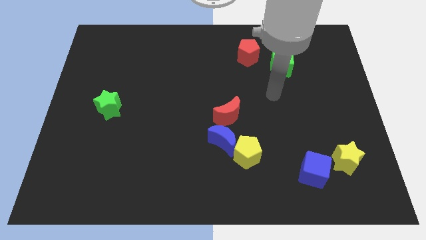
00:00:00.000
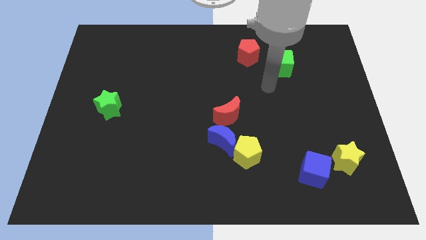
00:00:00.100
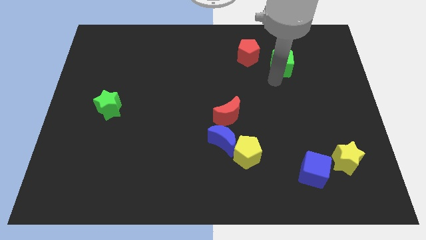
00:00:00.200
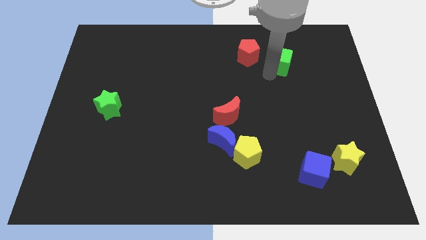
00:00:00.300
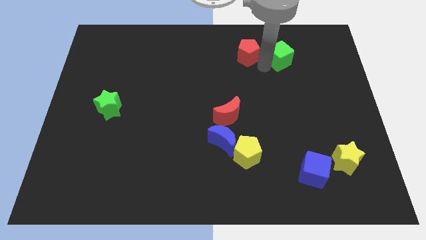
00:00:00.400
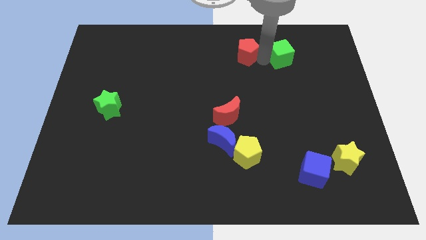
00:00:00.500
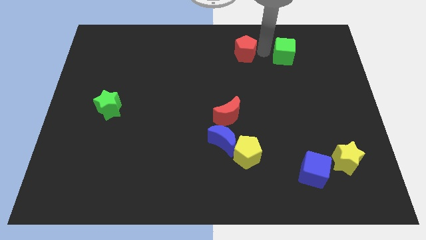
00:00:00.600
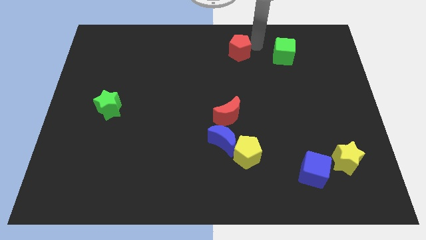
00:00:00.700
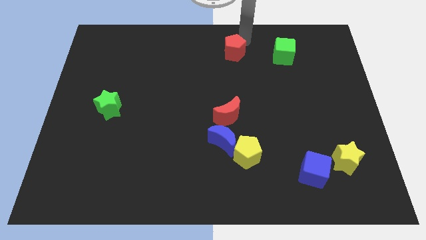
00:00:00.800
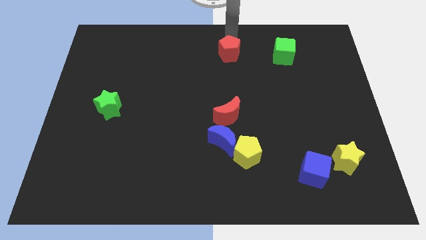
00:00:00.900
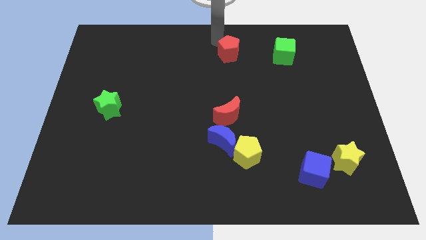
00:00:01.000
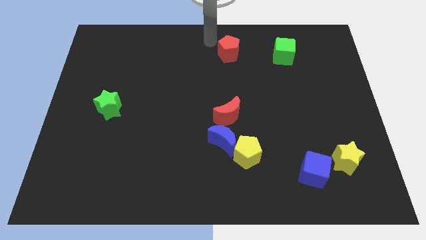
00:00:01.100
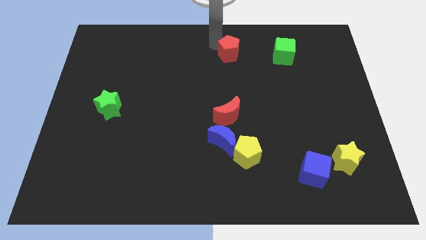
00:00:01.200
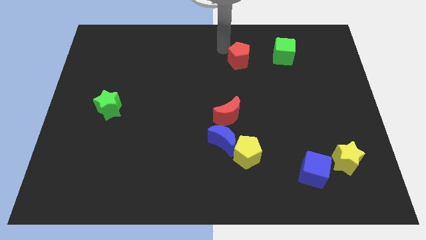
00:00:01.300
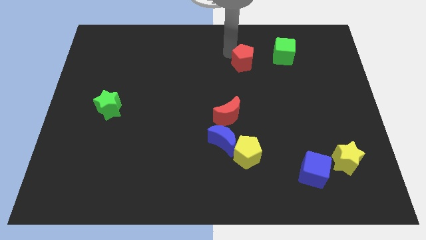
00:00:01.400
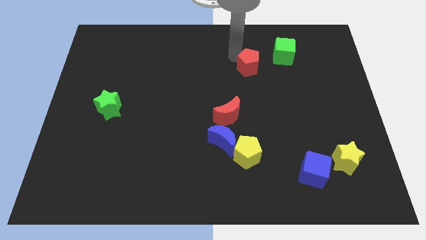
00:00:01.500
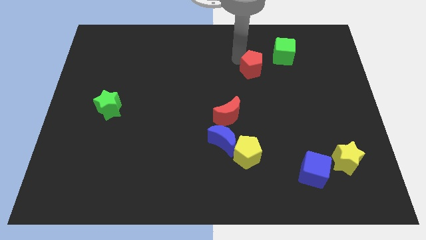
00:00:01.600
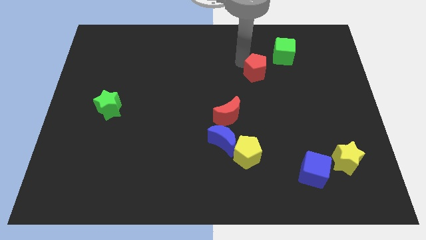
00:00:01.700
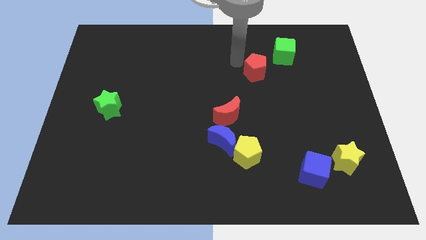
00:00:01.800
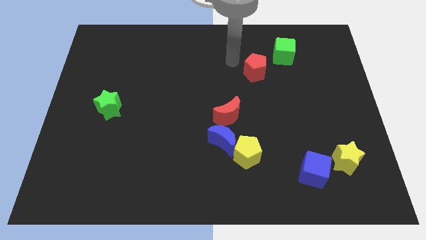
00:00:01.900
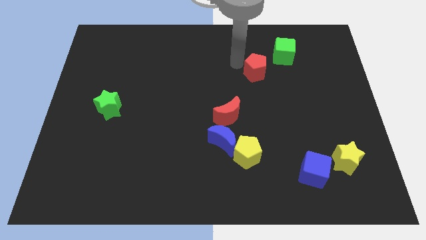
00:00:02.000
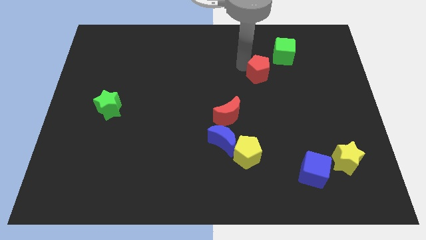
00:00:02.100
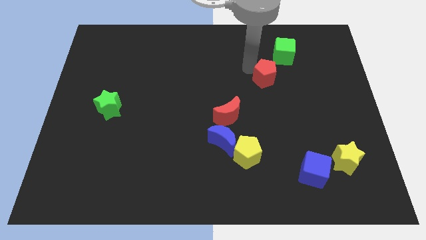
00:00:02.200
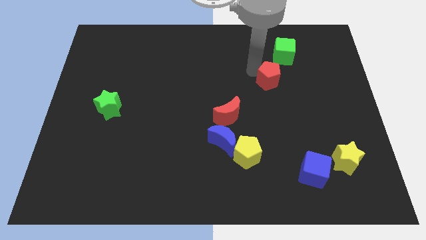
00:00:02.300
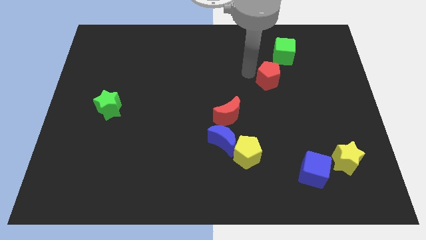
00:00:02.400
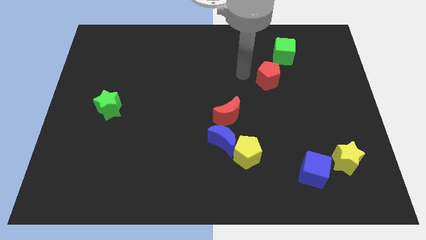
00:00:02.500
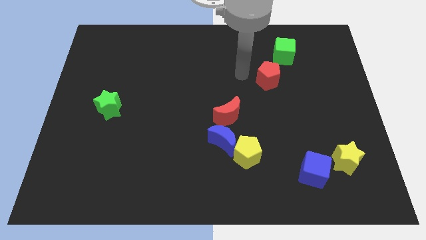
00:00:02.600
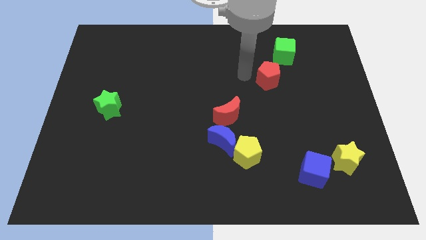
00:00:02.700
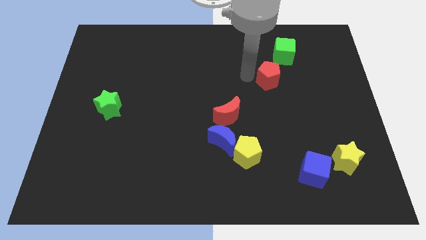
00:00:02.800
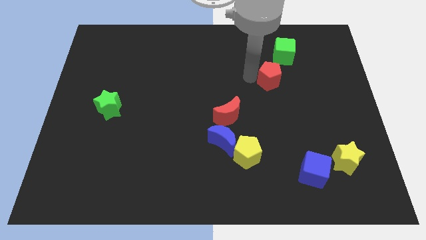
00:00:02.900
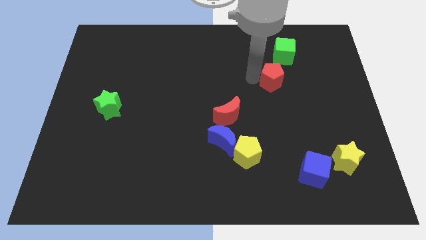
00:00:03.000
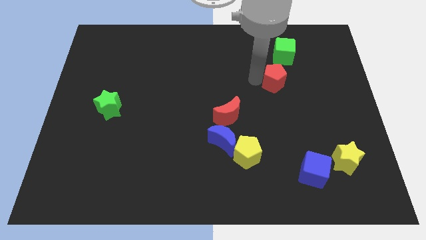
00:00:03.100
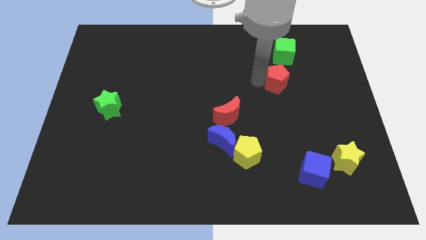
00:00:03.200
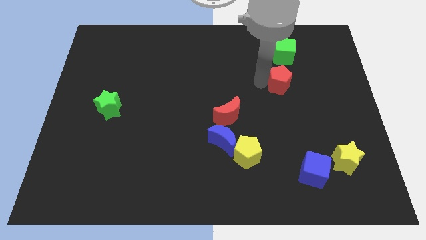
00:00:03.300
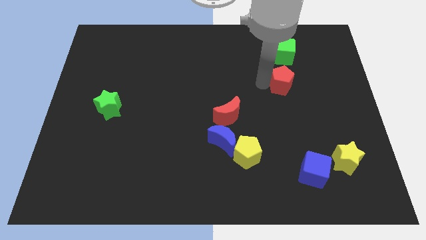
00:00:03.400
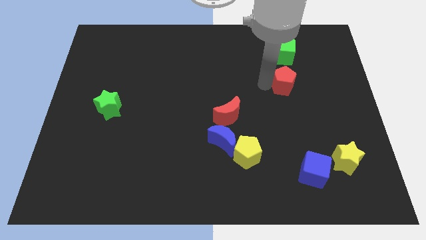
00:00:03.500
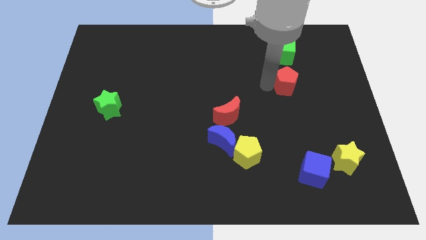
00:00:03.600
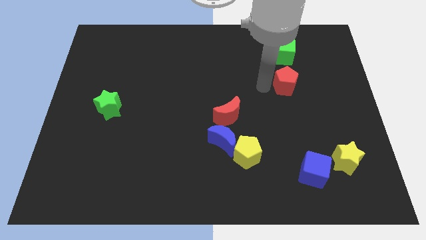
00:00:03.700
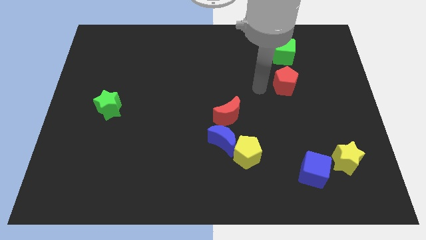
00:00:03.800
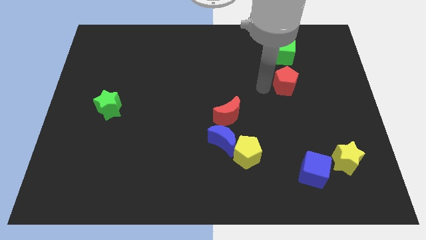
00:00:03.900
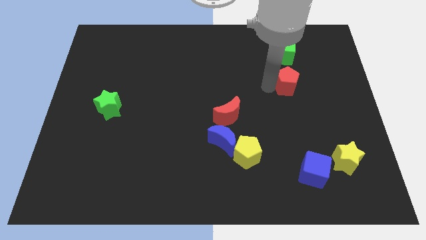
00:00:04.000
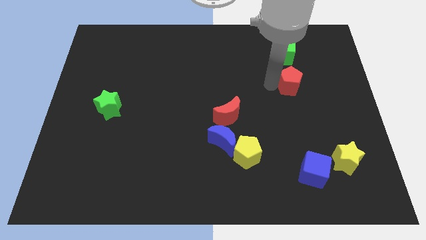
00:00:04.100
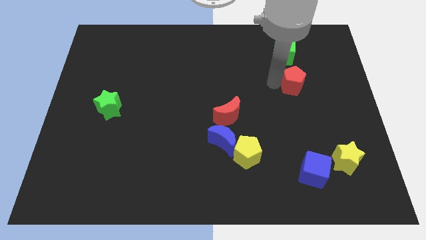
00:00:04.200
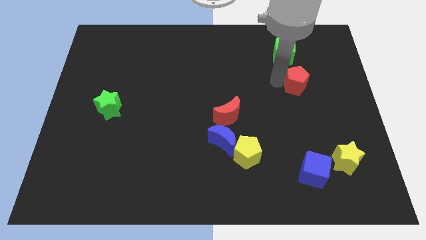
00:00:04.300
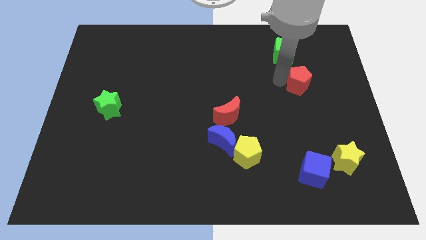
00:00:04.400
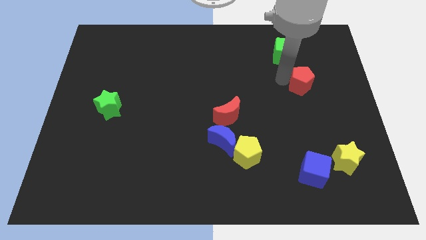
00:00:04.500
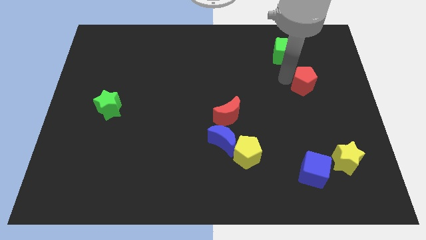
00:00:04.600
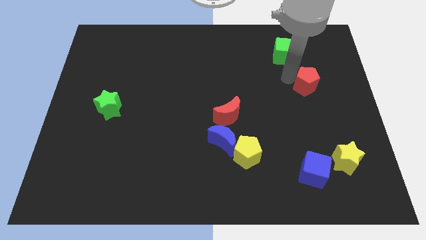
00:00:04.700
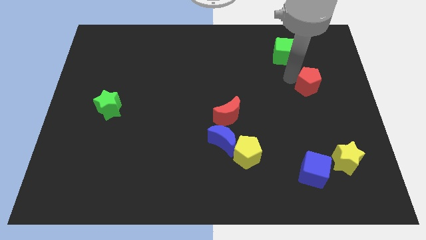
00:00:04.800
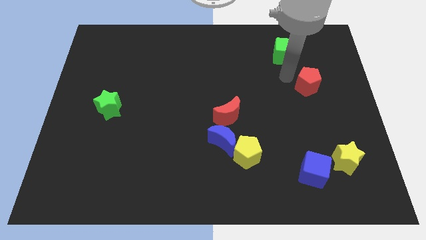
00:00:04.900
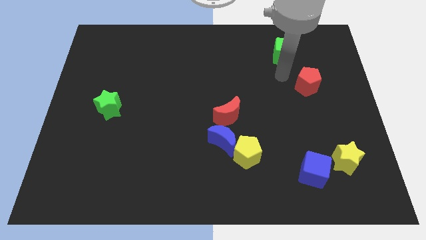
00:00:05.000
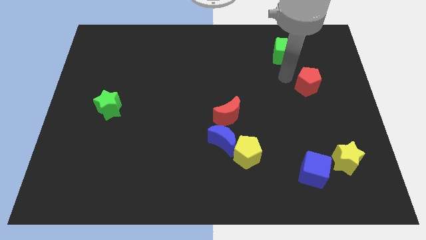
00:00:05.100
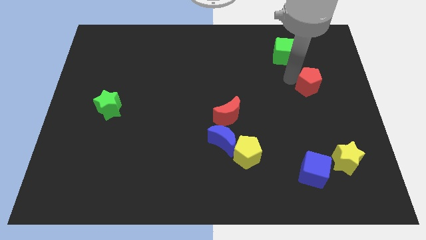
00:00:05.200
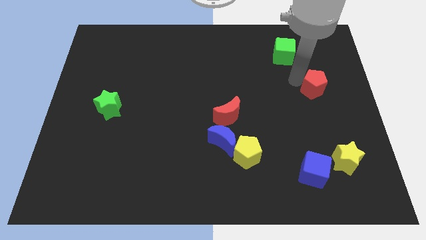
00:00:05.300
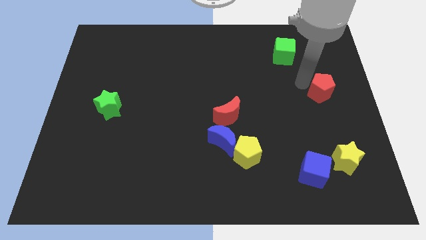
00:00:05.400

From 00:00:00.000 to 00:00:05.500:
slide the red pentagon to the right side

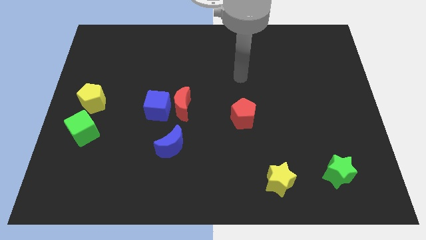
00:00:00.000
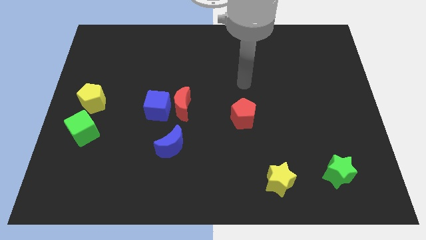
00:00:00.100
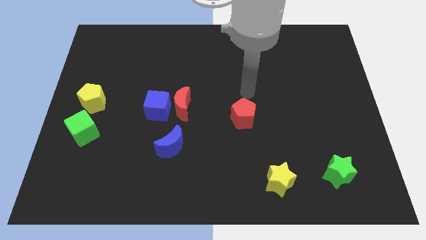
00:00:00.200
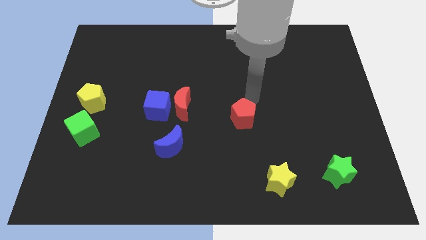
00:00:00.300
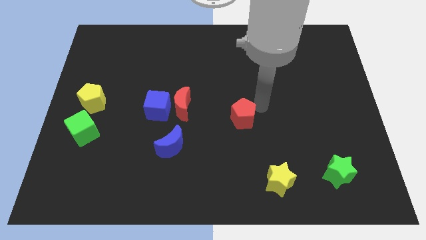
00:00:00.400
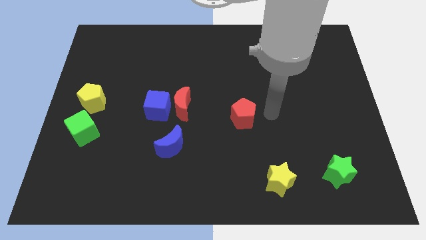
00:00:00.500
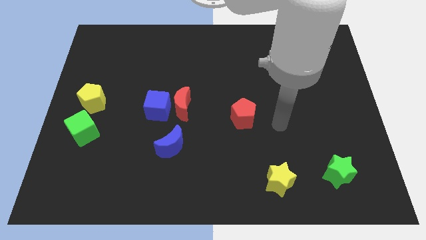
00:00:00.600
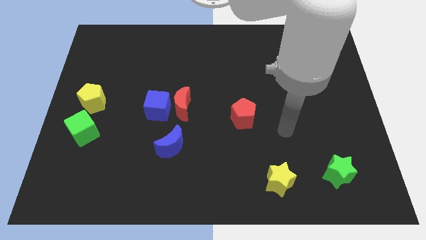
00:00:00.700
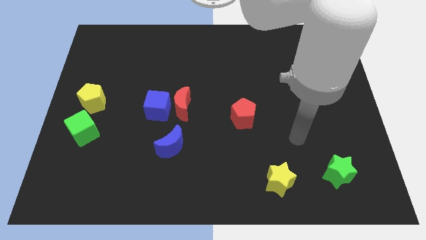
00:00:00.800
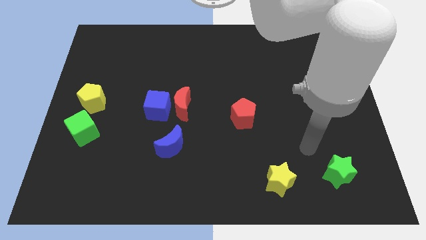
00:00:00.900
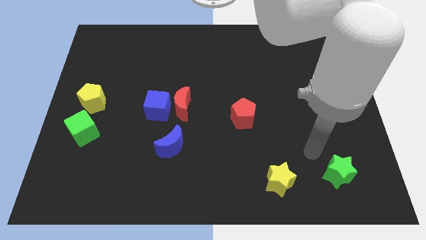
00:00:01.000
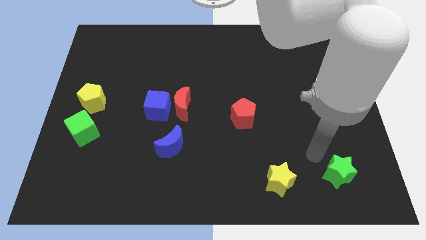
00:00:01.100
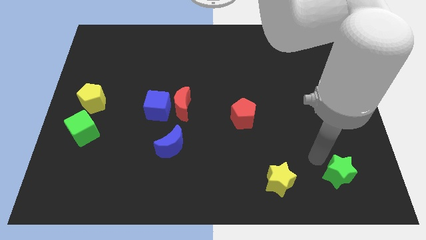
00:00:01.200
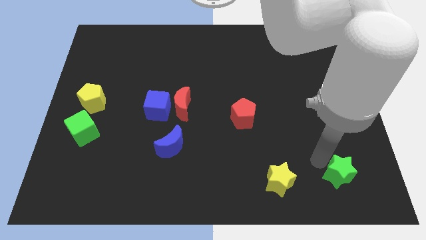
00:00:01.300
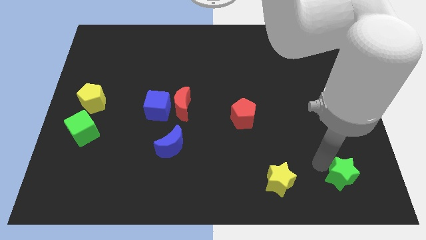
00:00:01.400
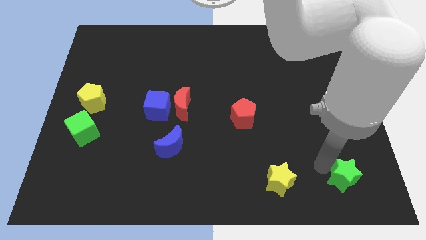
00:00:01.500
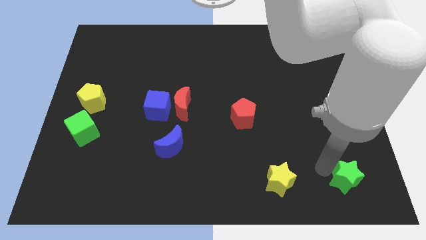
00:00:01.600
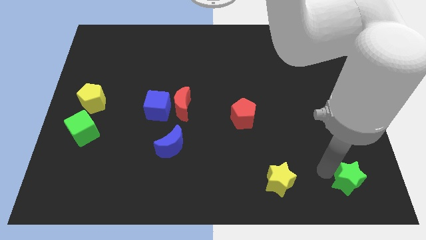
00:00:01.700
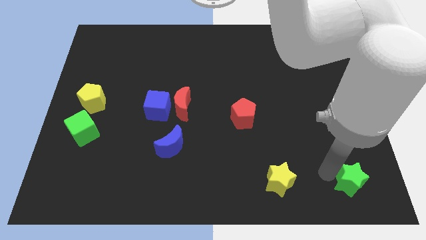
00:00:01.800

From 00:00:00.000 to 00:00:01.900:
push the green star to the lower right corner
